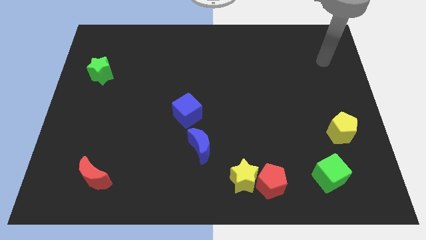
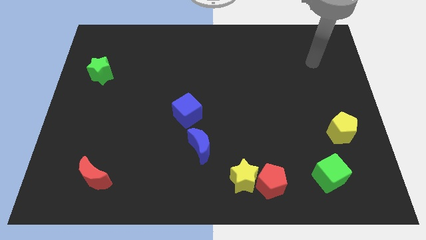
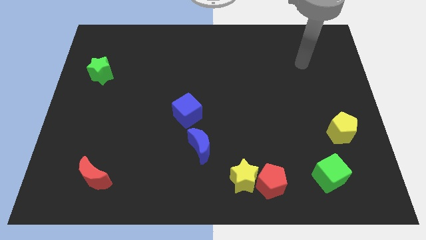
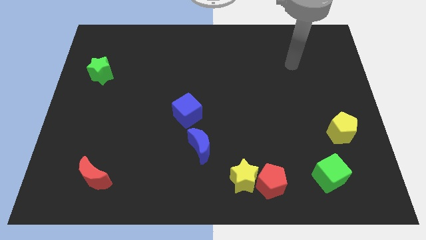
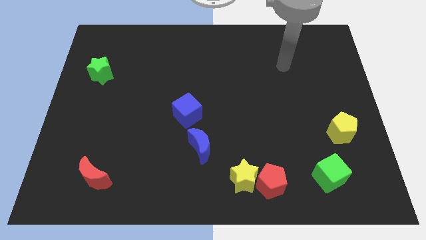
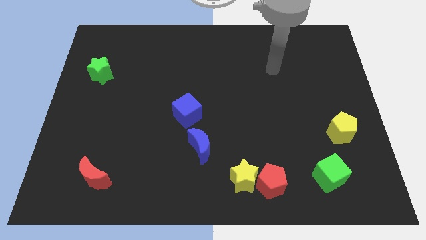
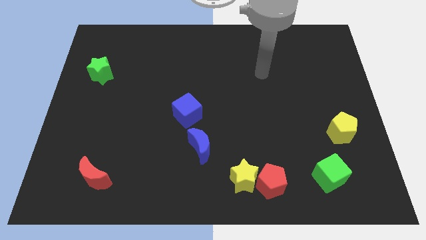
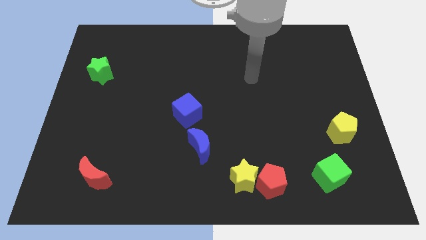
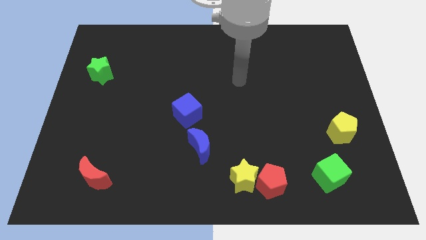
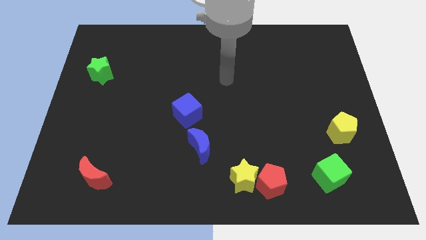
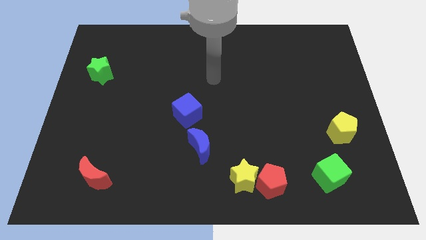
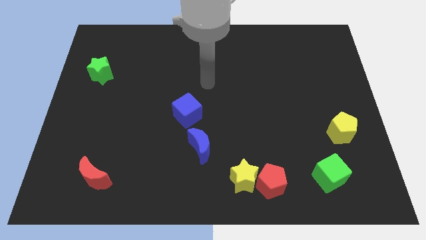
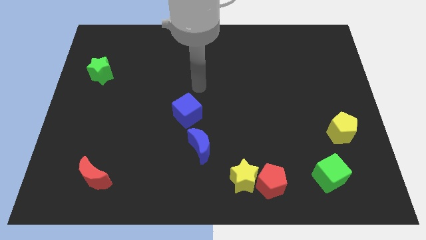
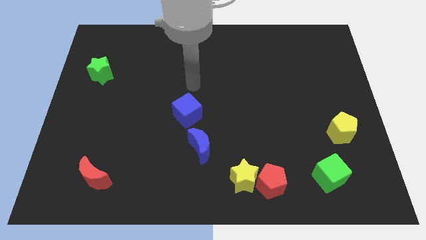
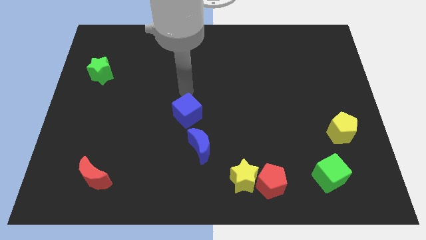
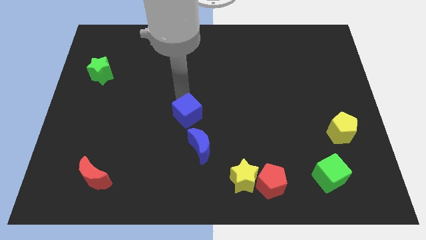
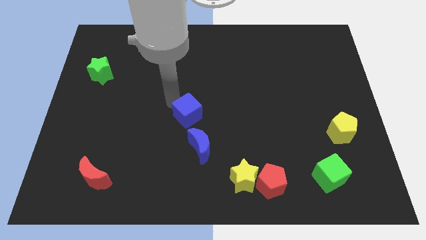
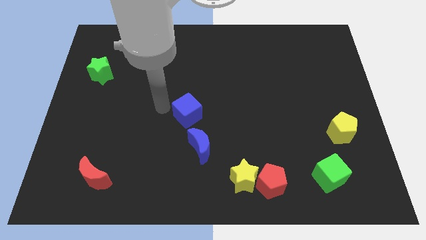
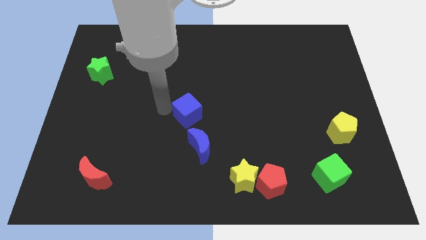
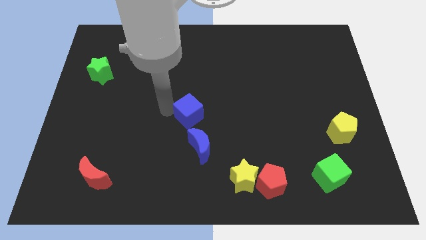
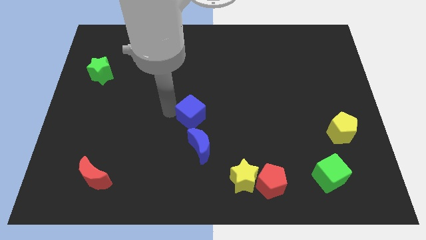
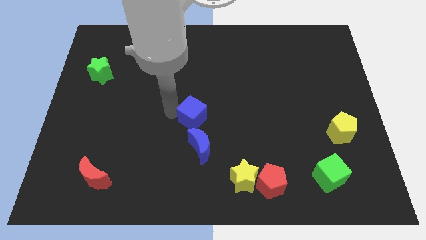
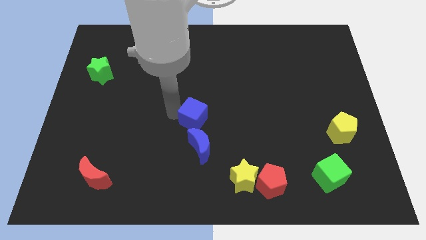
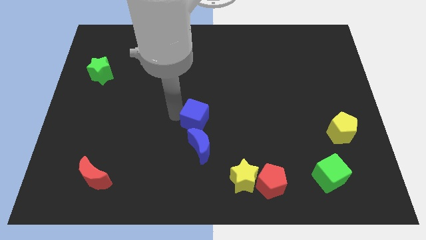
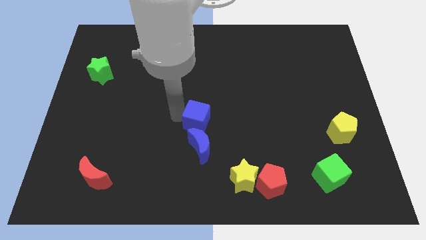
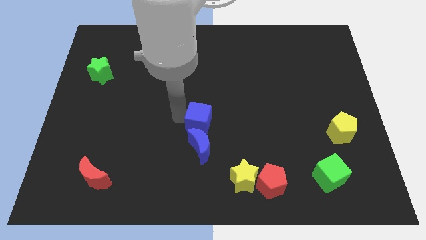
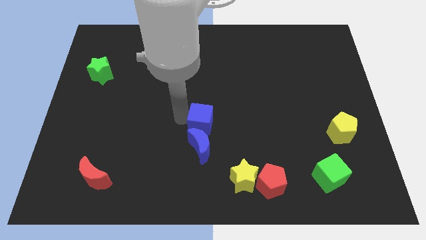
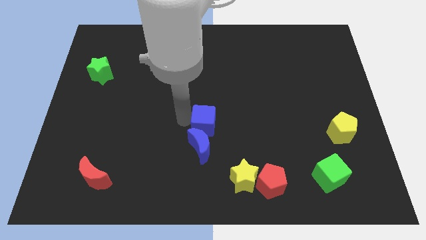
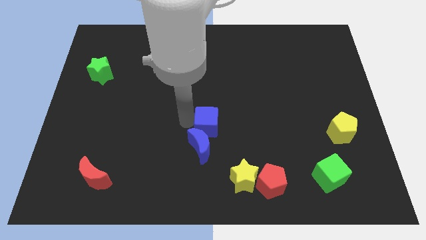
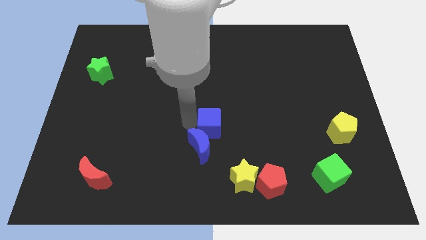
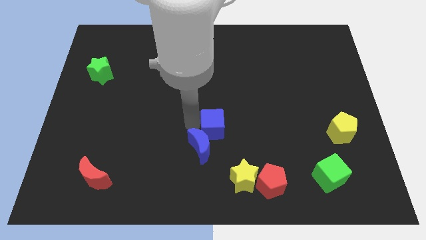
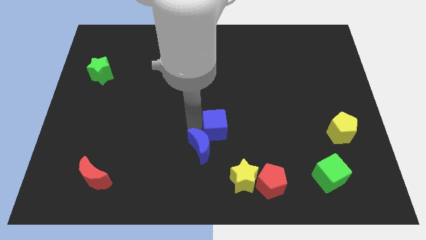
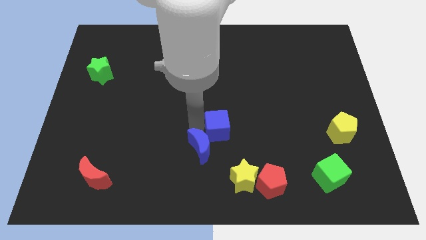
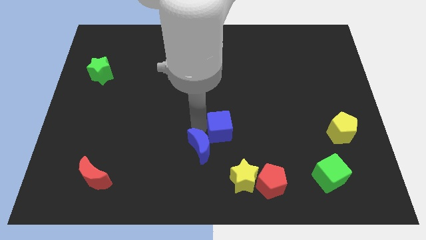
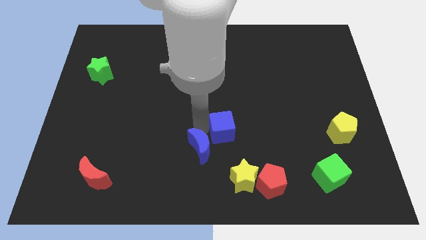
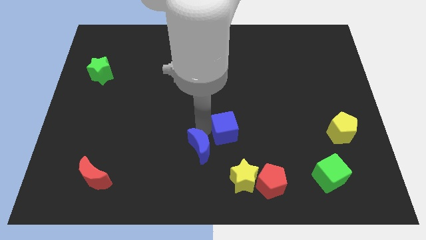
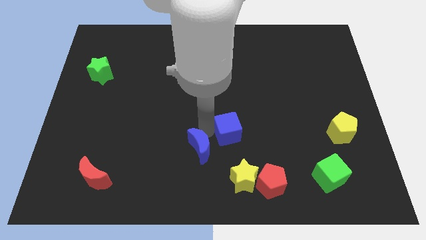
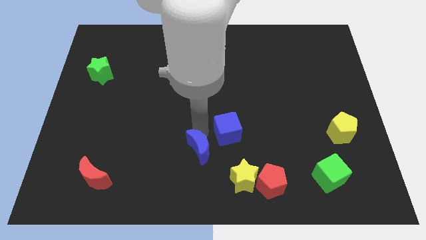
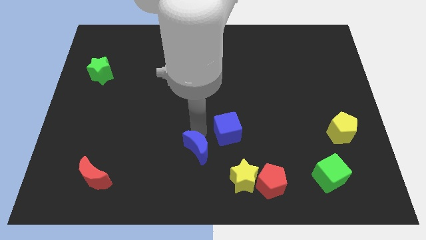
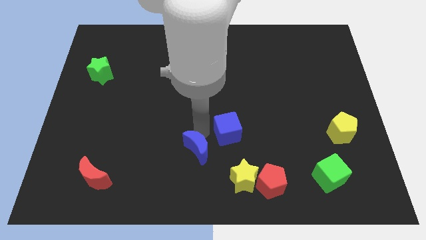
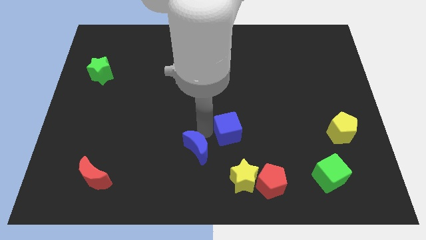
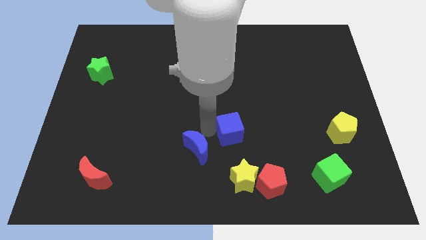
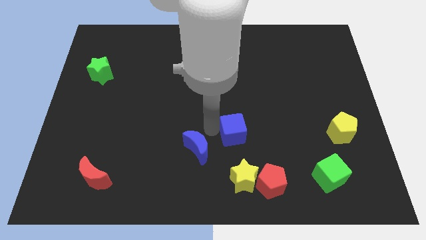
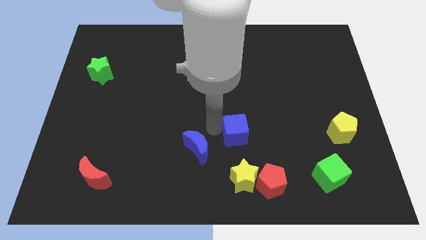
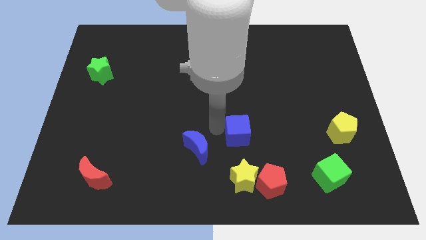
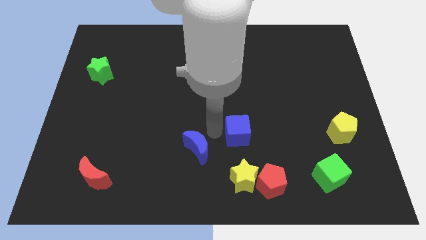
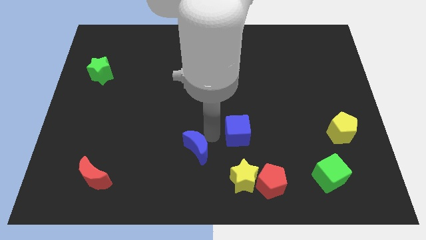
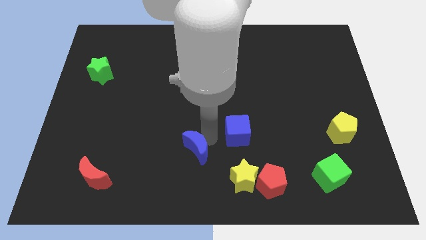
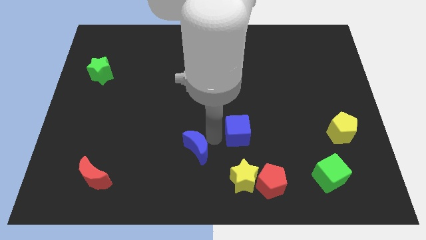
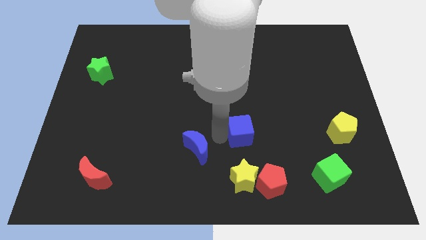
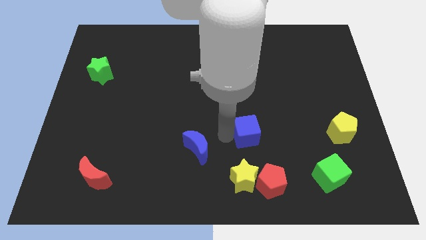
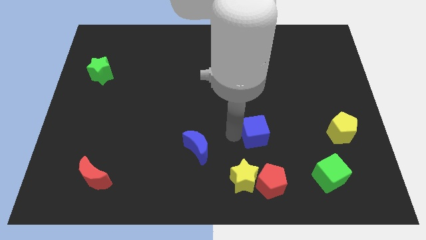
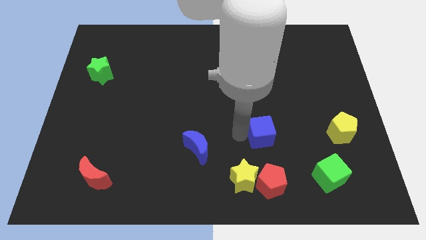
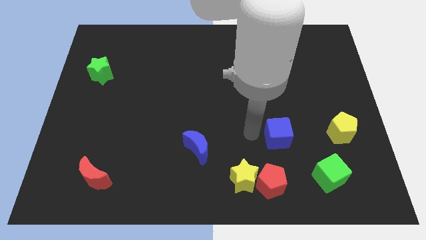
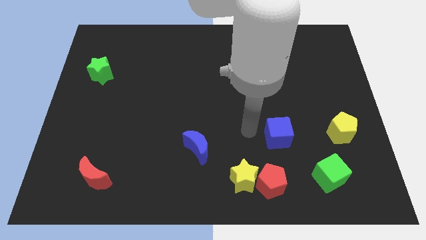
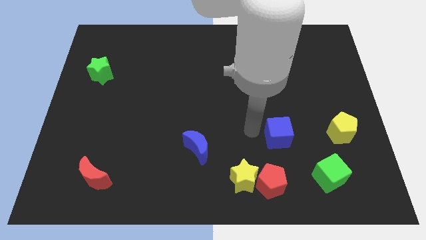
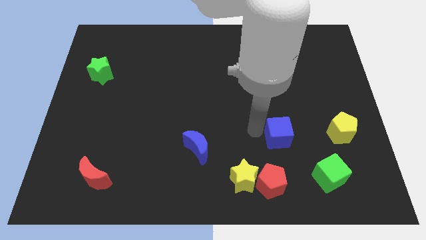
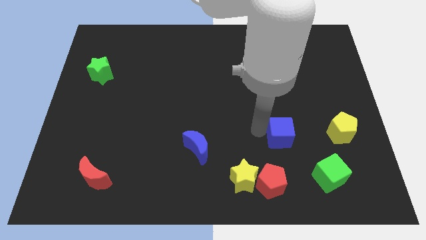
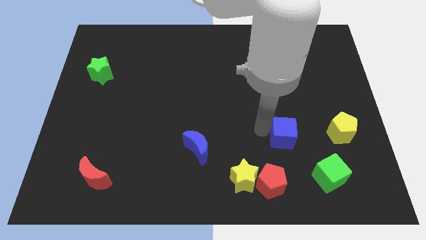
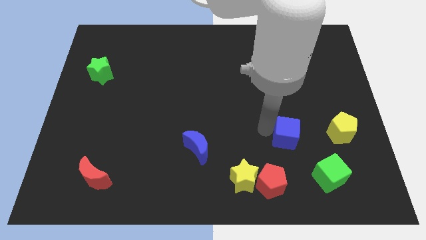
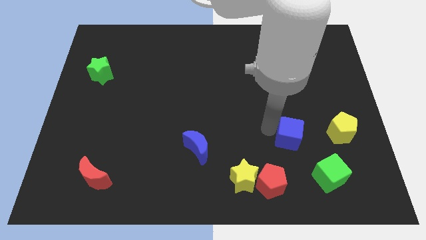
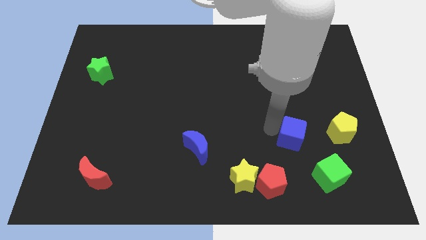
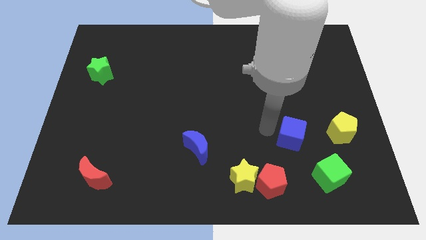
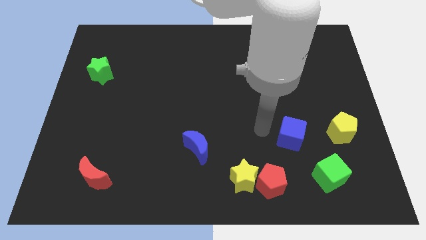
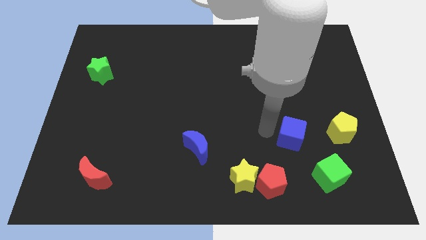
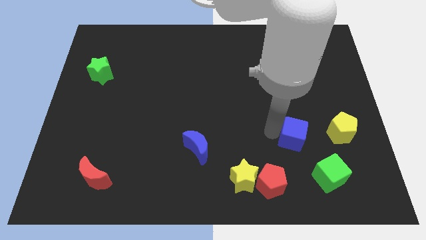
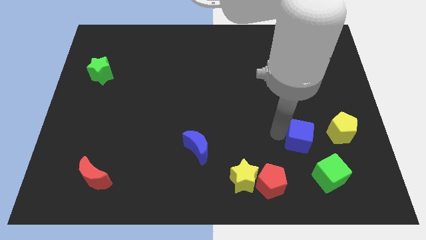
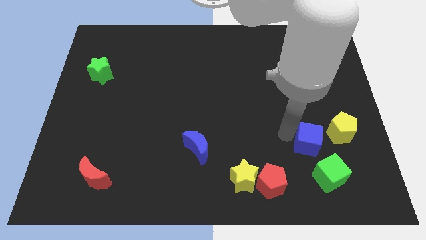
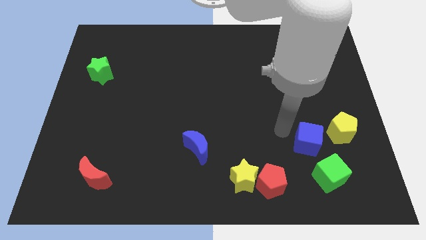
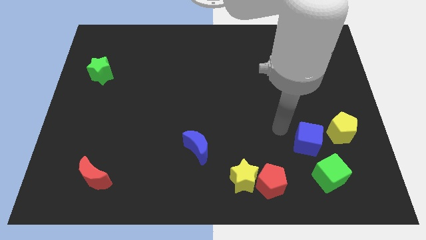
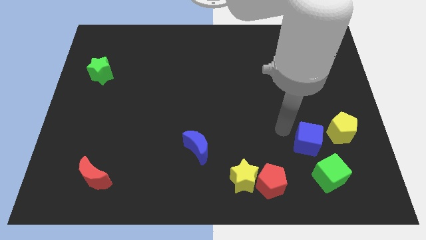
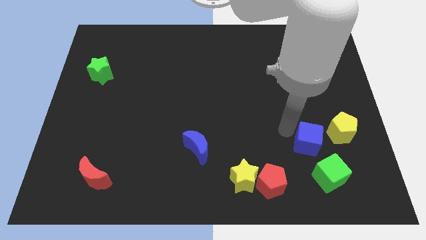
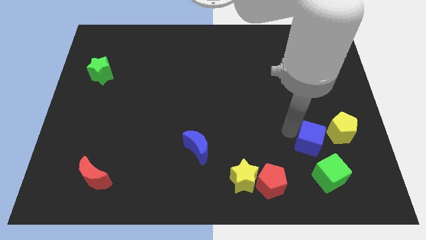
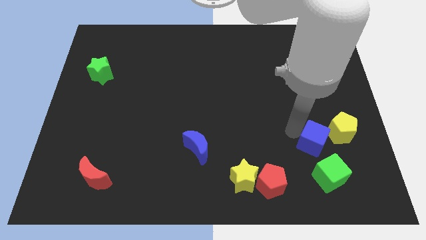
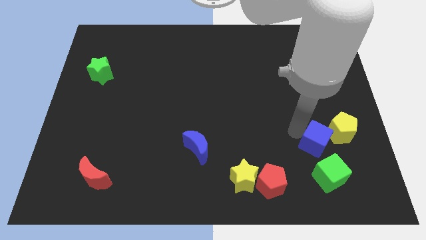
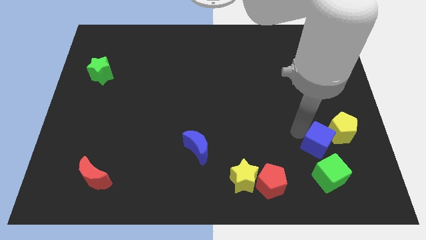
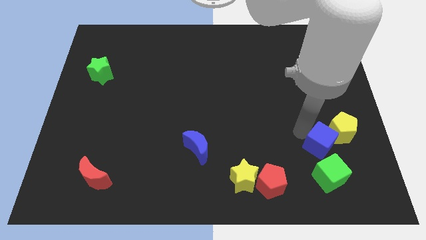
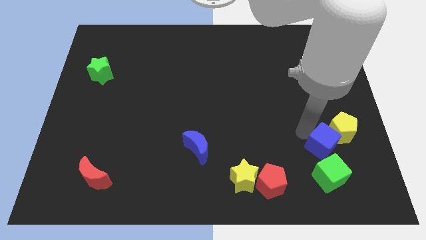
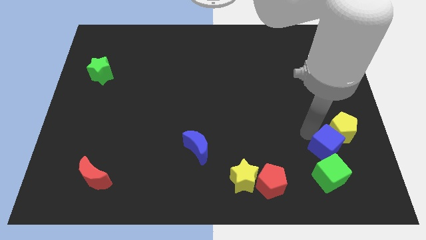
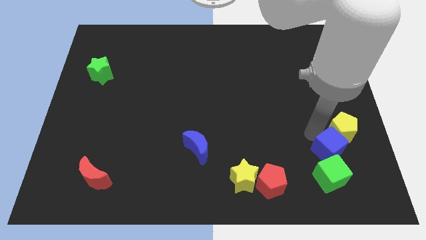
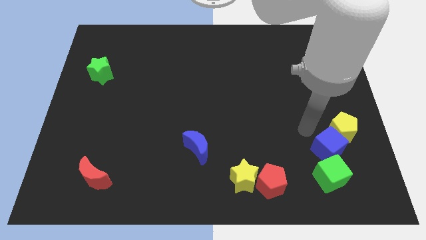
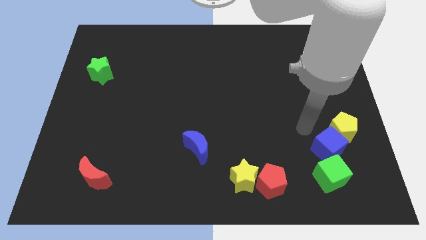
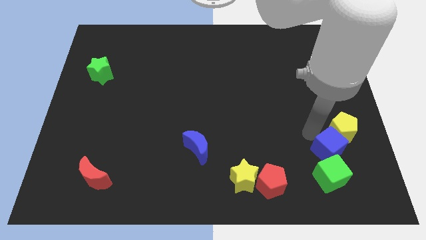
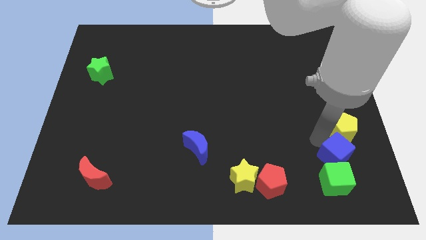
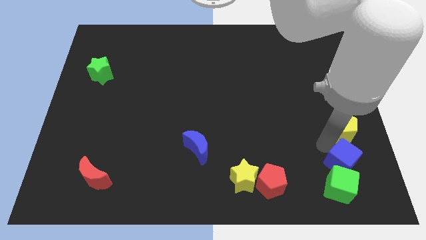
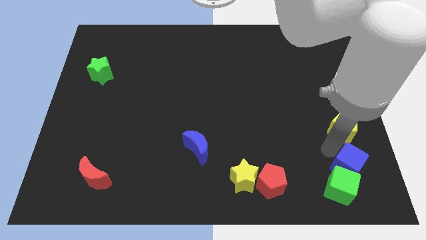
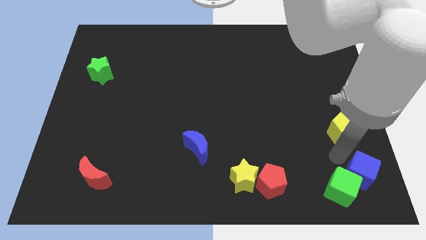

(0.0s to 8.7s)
move the blue cube to the bottom right of the board
